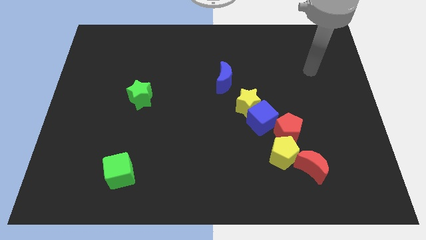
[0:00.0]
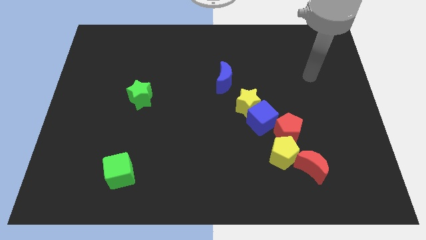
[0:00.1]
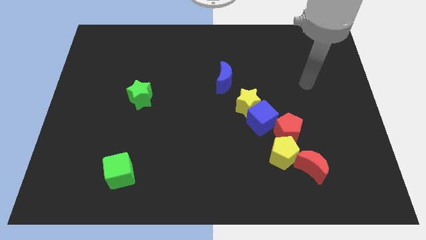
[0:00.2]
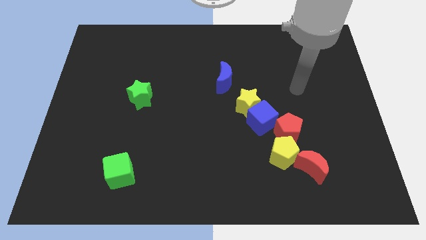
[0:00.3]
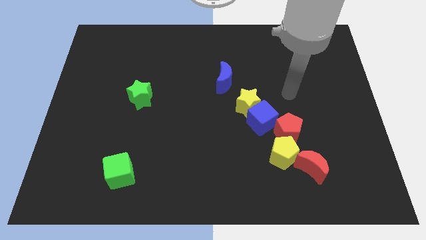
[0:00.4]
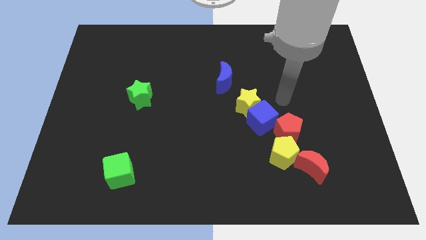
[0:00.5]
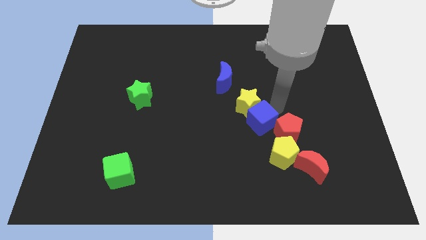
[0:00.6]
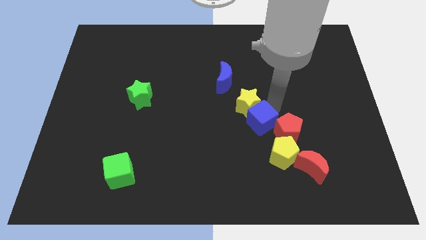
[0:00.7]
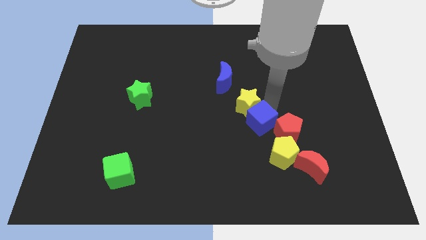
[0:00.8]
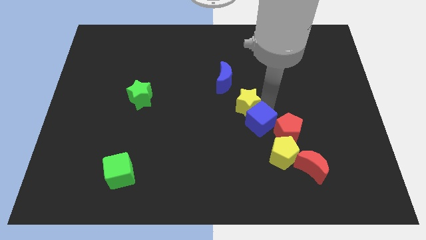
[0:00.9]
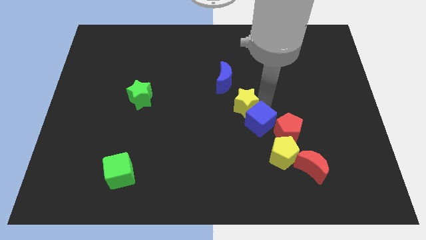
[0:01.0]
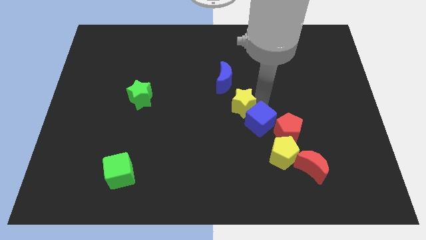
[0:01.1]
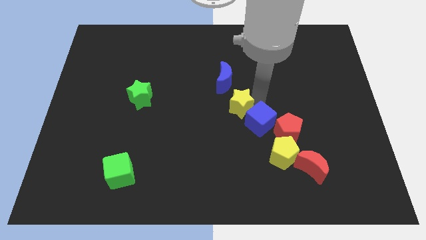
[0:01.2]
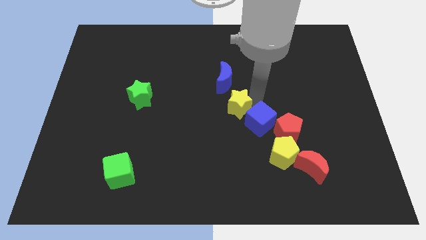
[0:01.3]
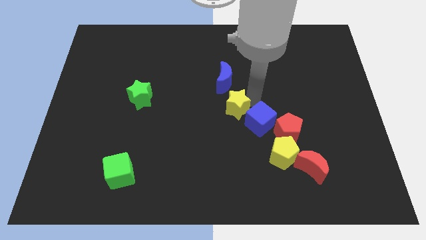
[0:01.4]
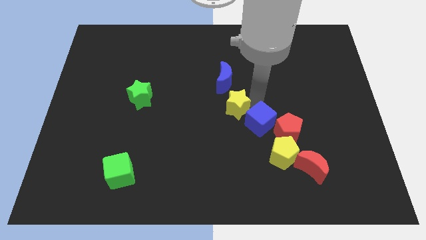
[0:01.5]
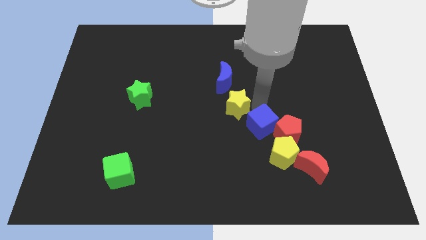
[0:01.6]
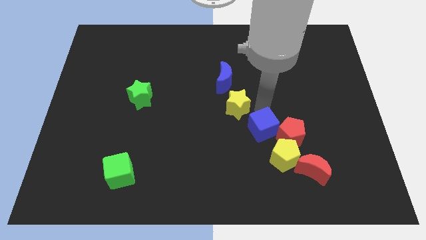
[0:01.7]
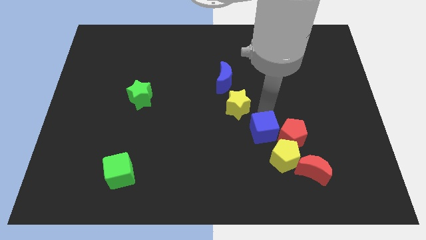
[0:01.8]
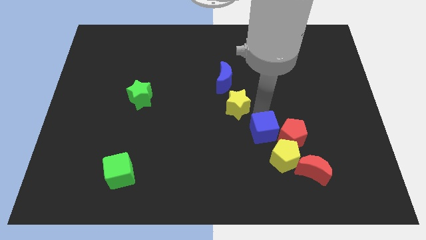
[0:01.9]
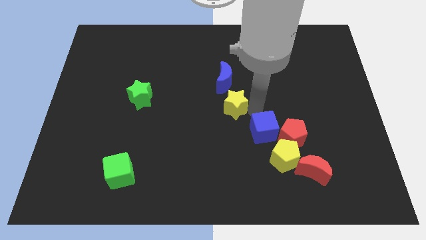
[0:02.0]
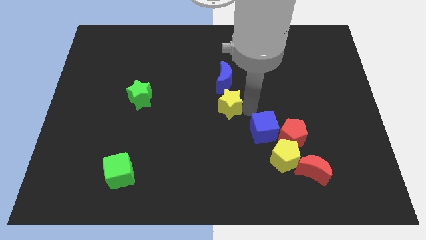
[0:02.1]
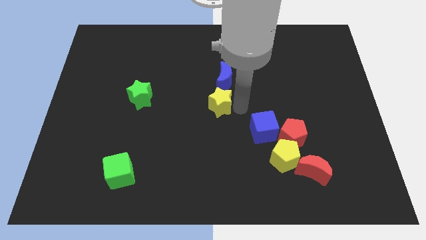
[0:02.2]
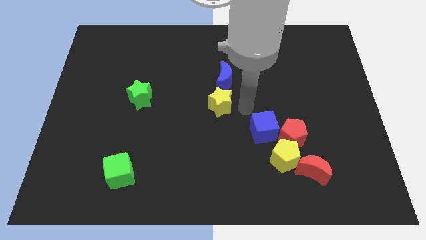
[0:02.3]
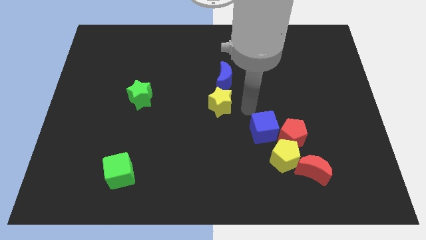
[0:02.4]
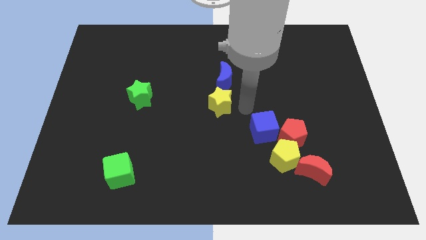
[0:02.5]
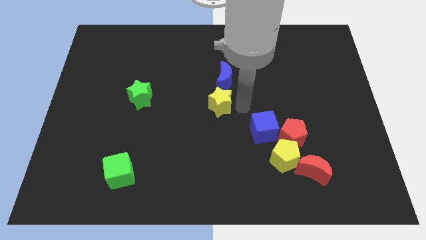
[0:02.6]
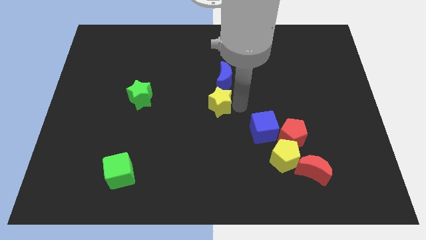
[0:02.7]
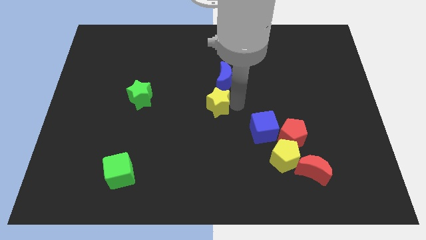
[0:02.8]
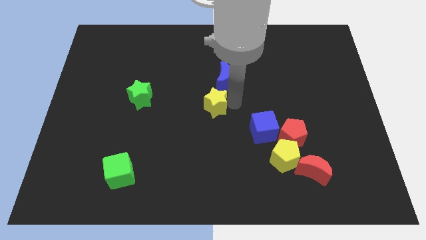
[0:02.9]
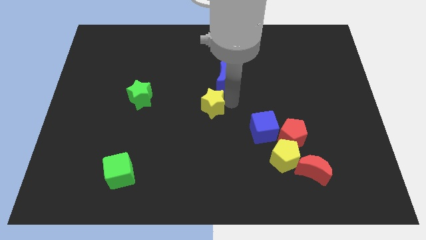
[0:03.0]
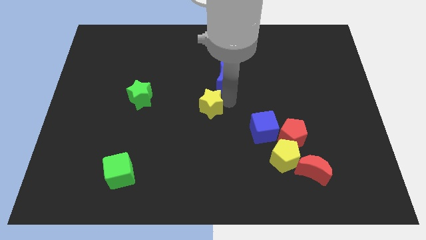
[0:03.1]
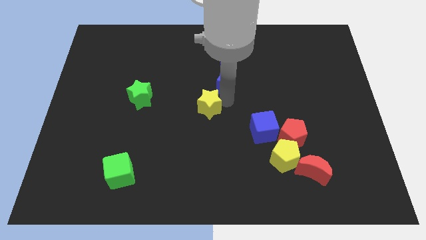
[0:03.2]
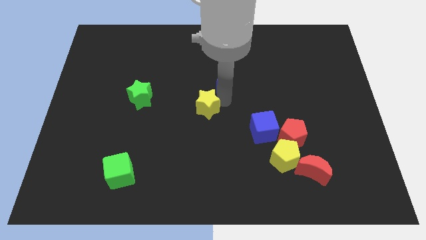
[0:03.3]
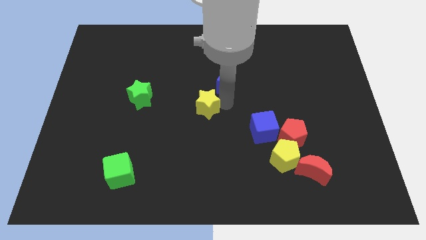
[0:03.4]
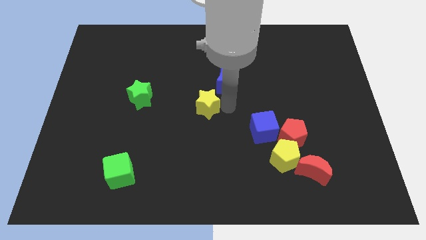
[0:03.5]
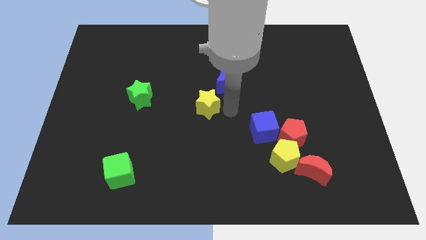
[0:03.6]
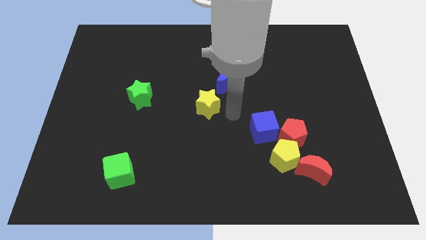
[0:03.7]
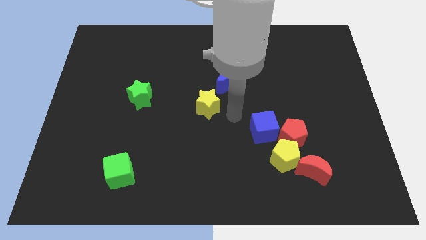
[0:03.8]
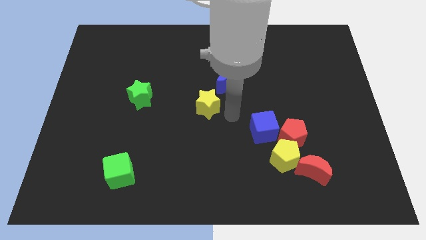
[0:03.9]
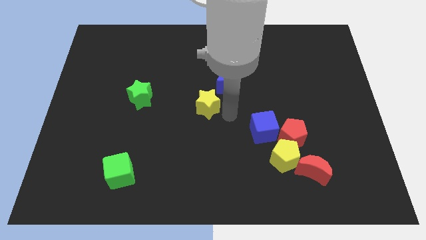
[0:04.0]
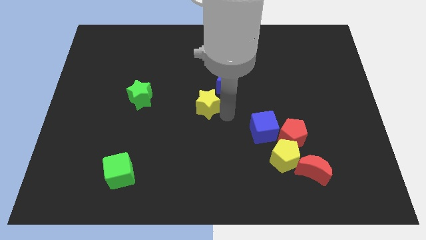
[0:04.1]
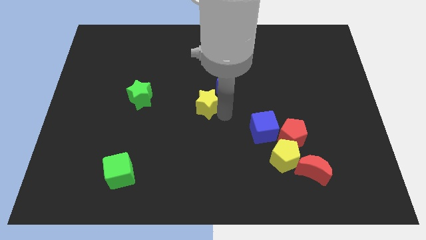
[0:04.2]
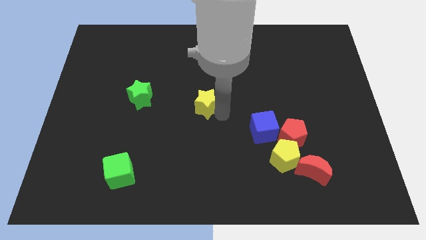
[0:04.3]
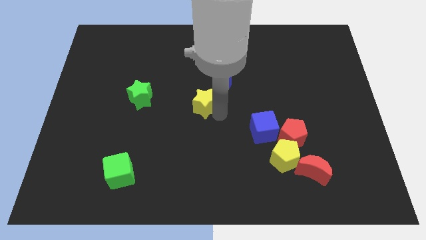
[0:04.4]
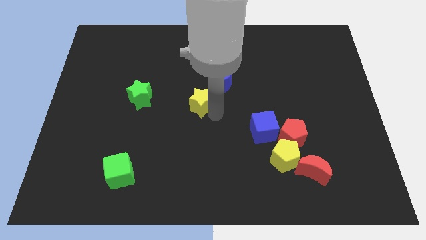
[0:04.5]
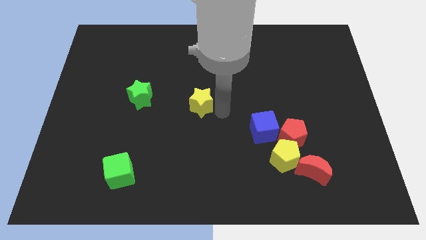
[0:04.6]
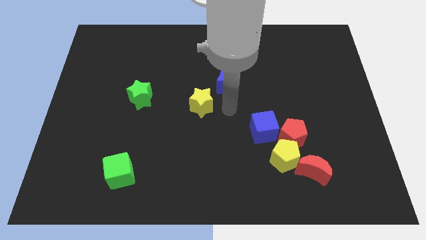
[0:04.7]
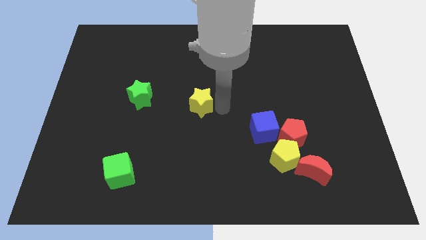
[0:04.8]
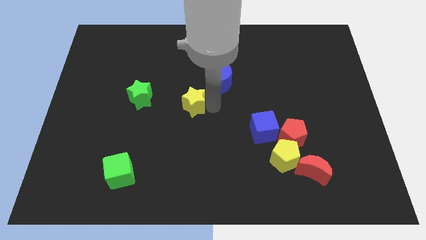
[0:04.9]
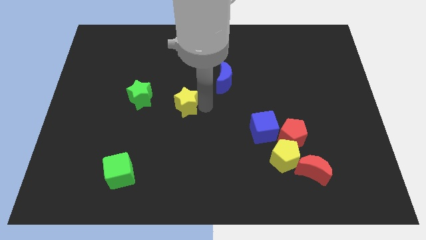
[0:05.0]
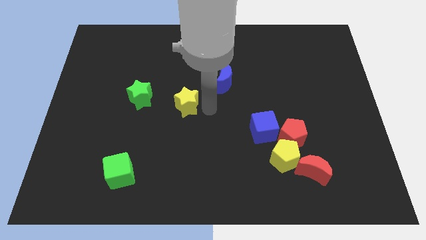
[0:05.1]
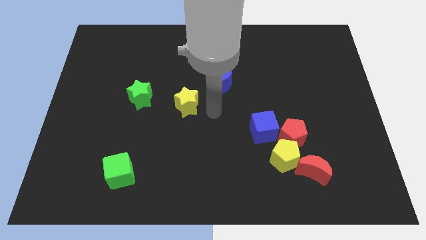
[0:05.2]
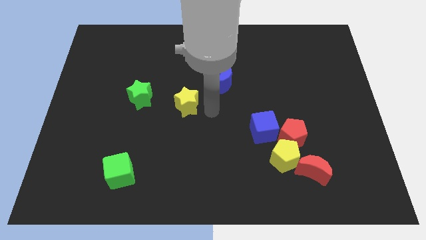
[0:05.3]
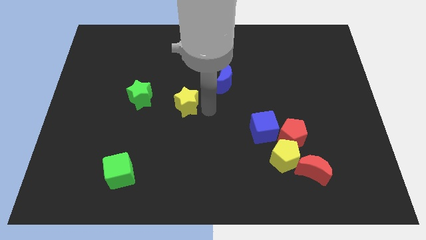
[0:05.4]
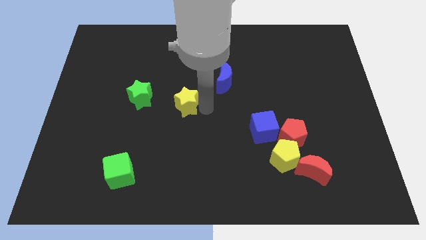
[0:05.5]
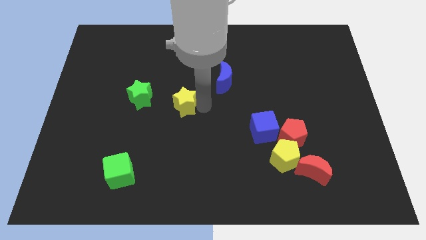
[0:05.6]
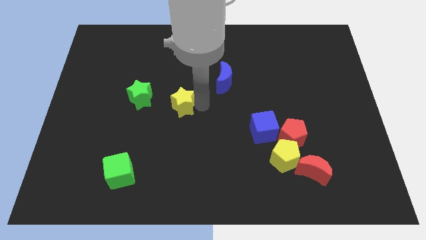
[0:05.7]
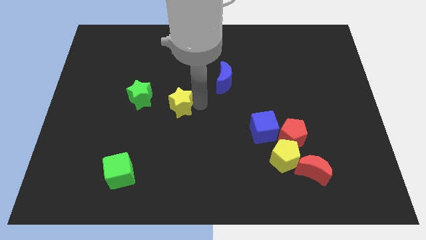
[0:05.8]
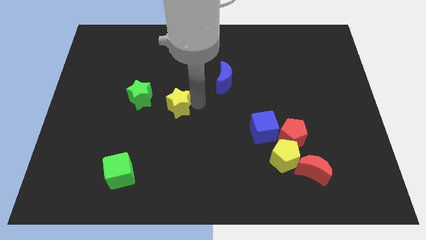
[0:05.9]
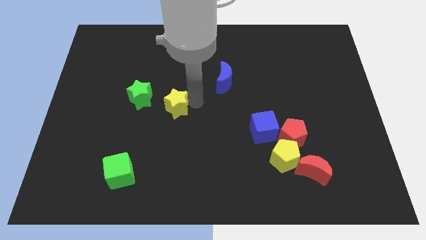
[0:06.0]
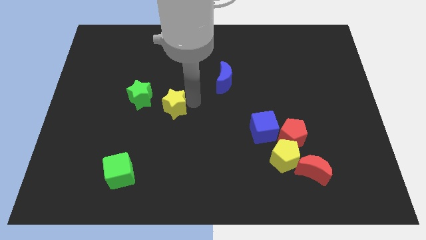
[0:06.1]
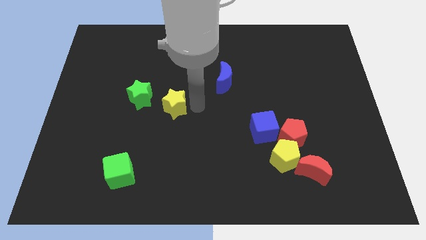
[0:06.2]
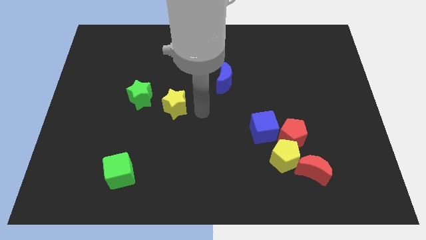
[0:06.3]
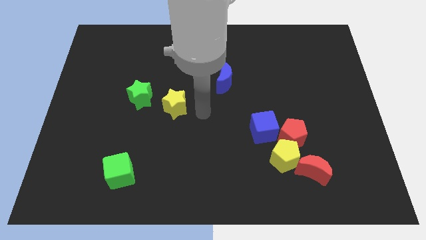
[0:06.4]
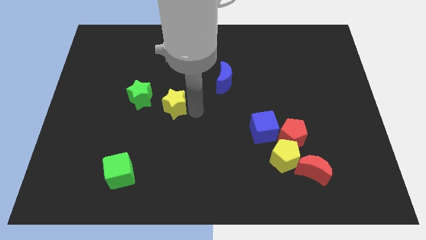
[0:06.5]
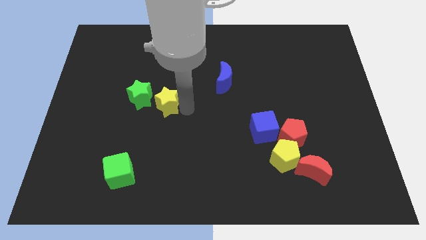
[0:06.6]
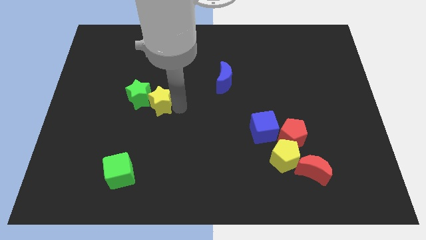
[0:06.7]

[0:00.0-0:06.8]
slide the yellow star next to the green star

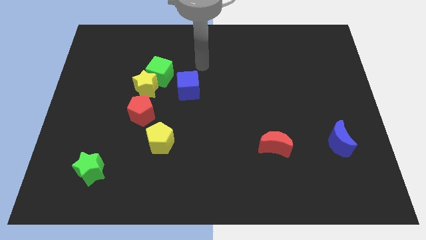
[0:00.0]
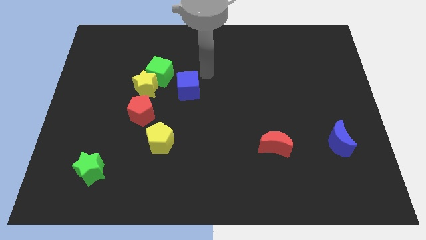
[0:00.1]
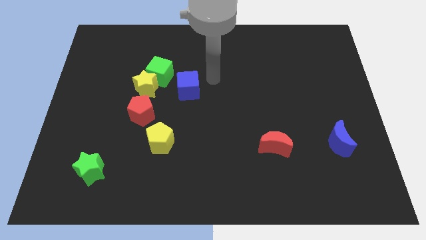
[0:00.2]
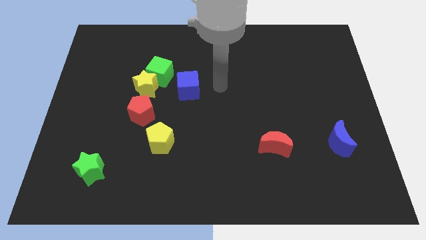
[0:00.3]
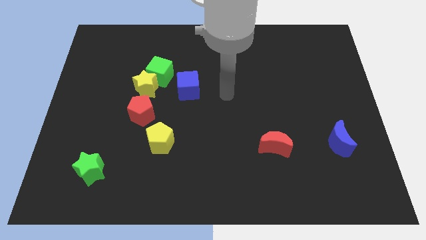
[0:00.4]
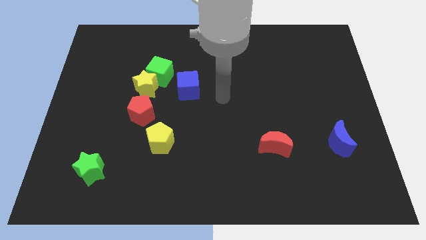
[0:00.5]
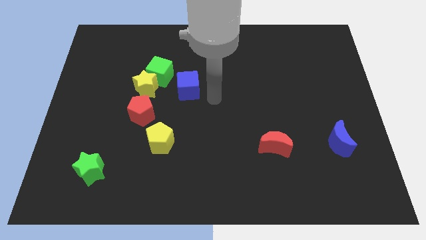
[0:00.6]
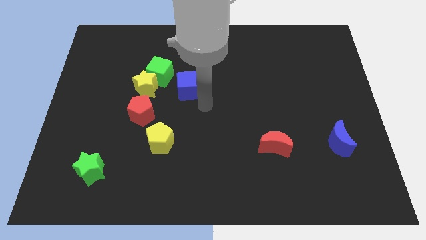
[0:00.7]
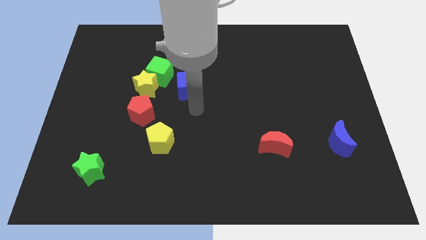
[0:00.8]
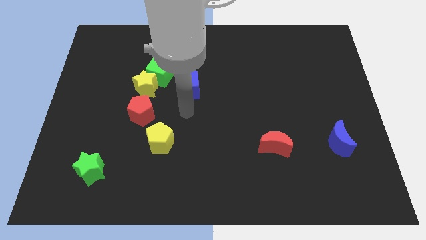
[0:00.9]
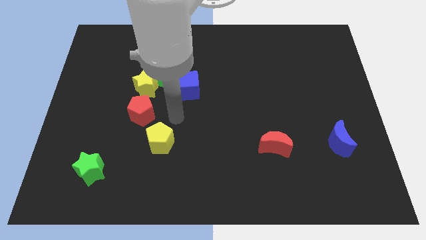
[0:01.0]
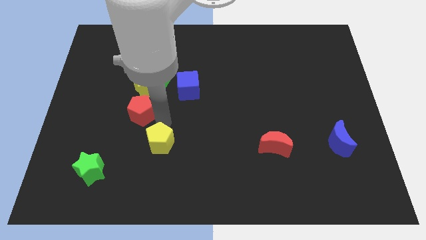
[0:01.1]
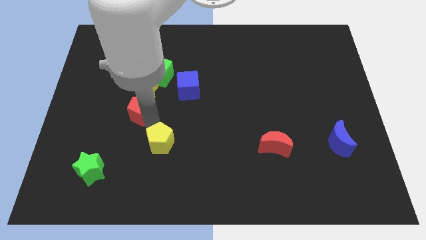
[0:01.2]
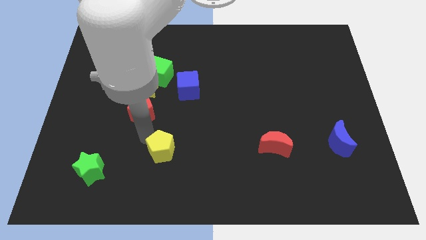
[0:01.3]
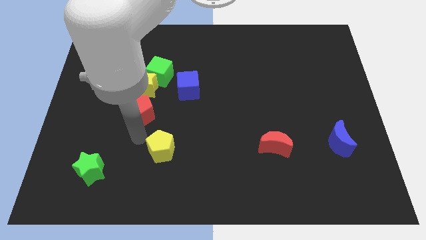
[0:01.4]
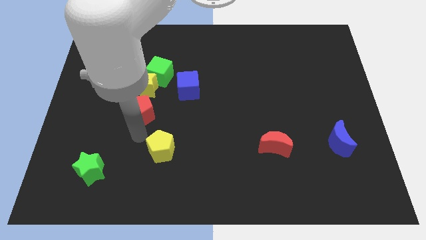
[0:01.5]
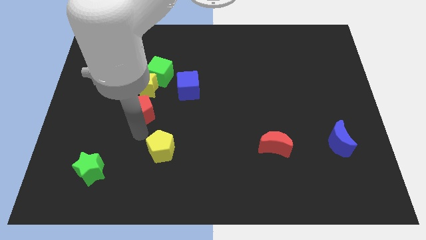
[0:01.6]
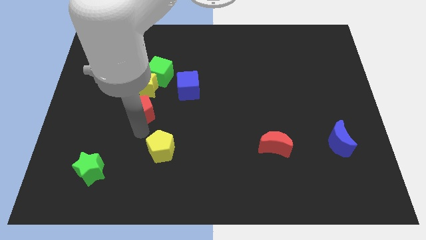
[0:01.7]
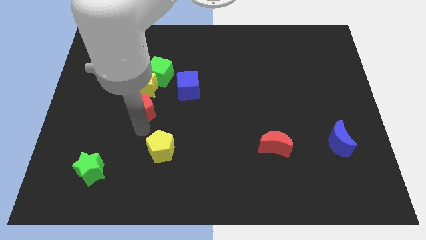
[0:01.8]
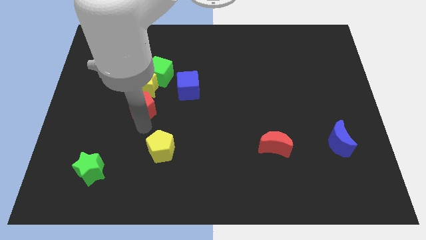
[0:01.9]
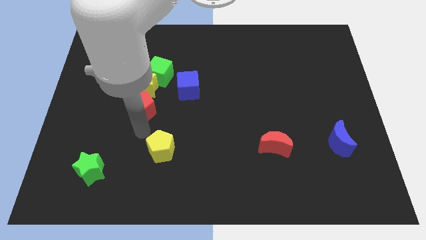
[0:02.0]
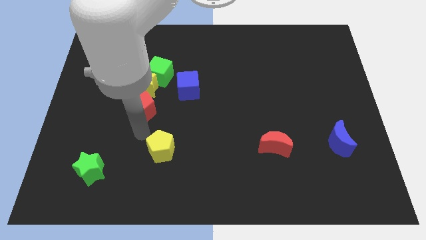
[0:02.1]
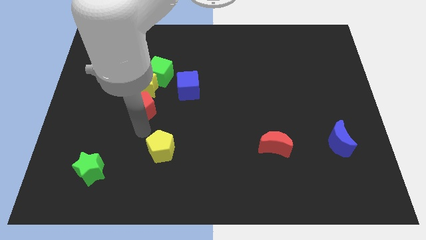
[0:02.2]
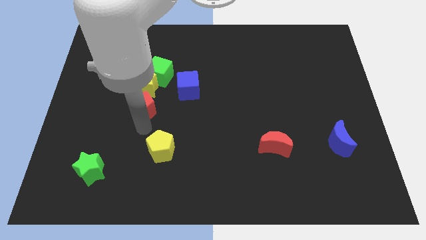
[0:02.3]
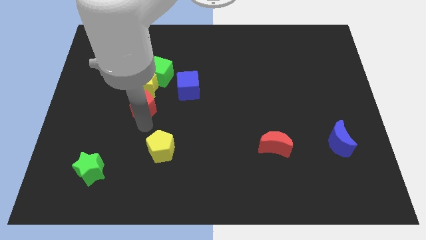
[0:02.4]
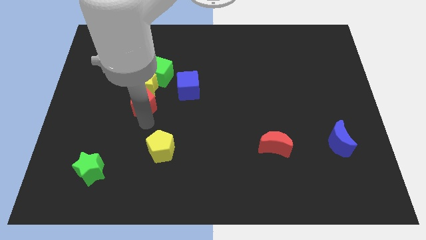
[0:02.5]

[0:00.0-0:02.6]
push the red pentagon to the yellow star
